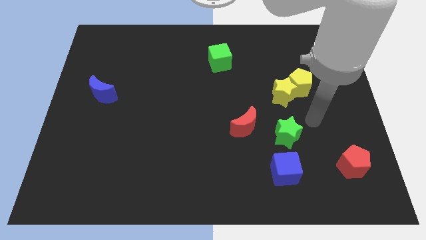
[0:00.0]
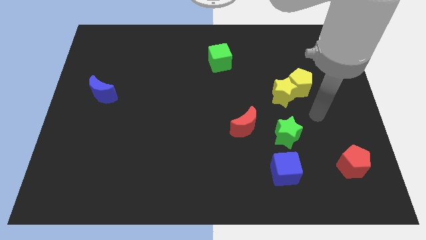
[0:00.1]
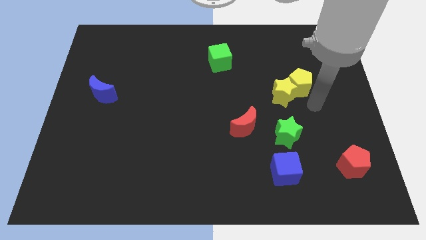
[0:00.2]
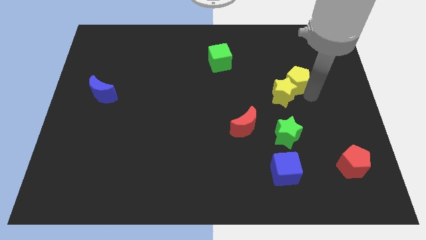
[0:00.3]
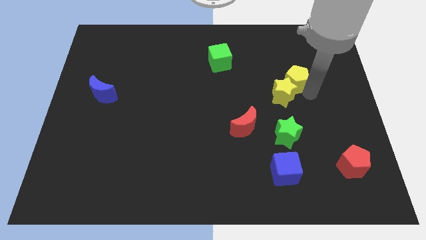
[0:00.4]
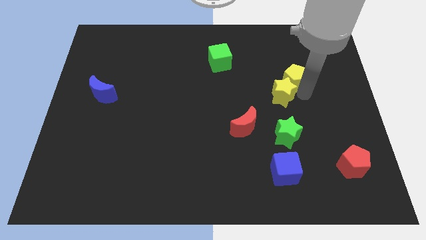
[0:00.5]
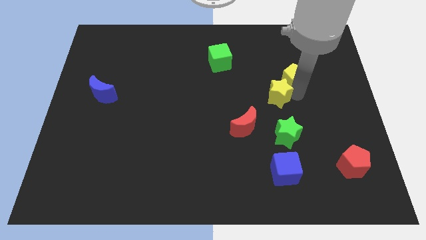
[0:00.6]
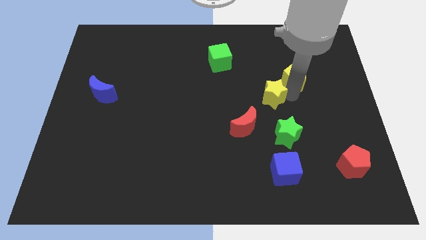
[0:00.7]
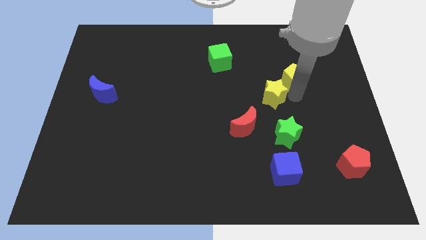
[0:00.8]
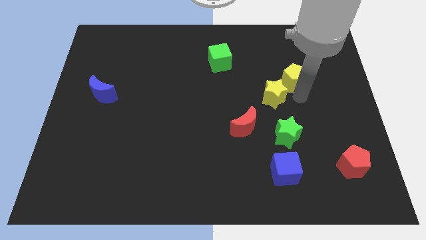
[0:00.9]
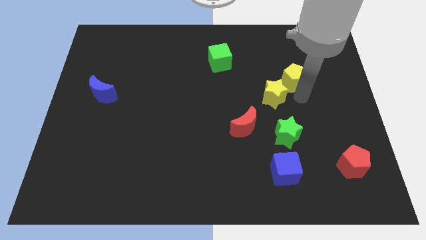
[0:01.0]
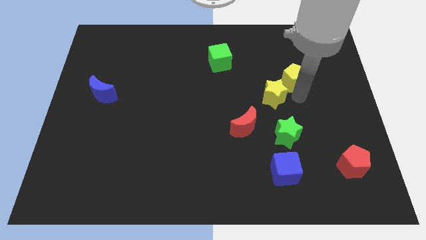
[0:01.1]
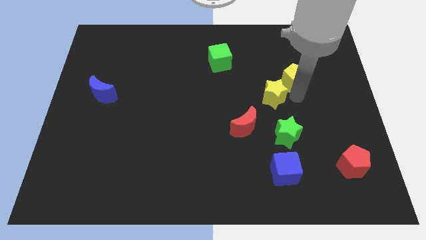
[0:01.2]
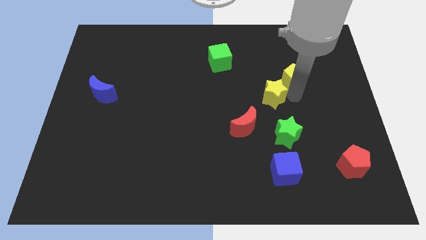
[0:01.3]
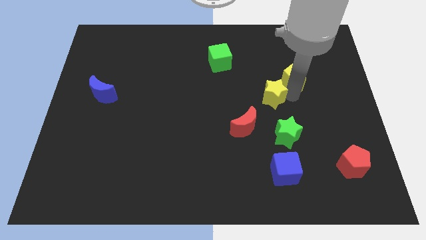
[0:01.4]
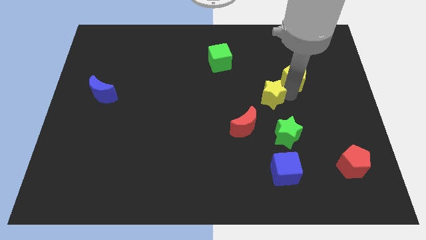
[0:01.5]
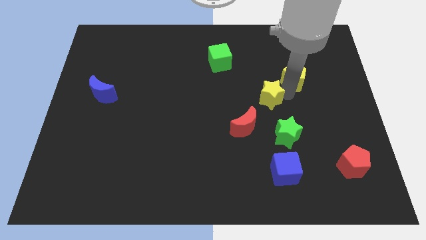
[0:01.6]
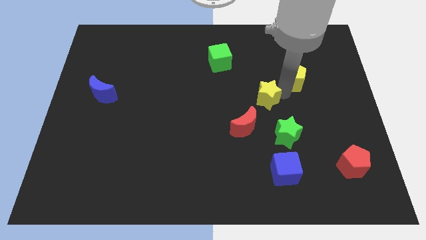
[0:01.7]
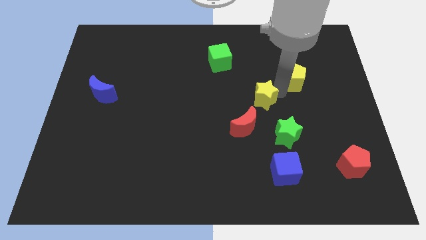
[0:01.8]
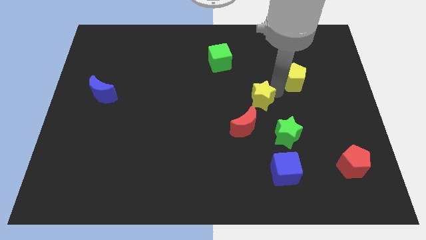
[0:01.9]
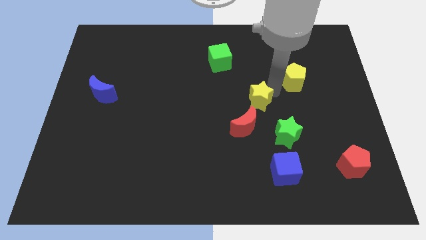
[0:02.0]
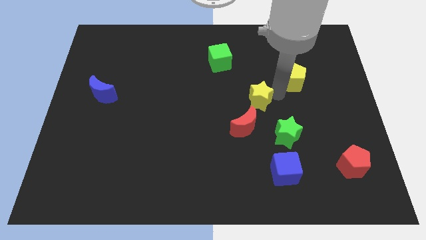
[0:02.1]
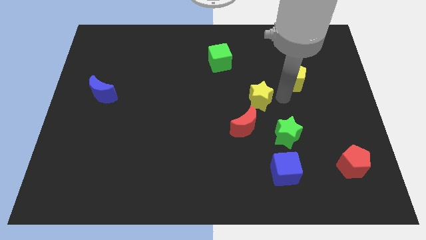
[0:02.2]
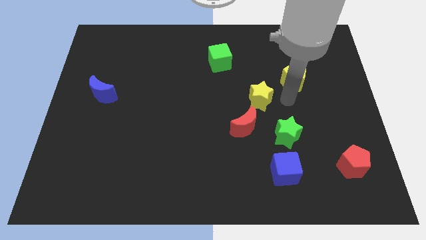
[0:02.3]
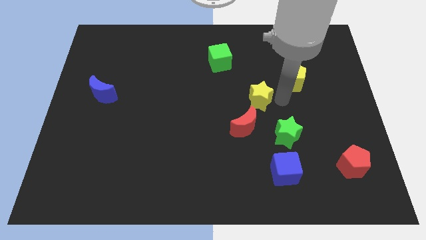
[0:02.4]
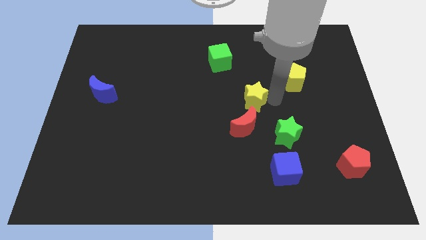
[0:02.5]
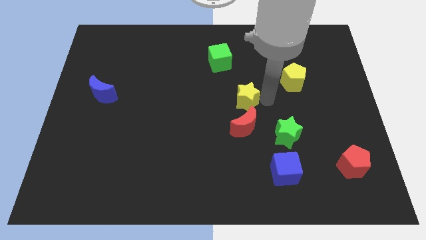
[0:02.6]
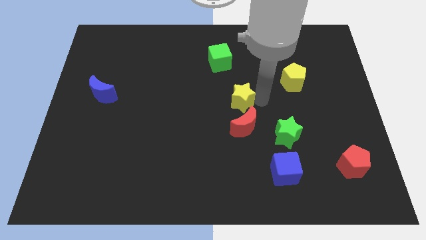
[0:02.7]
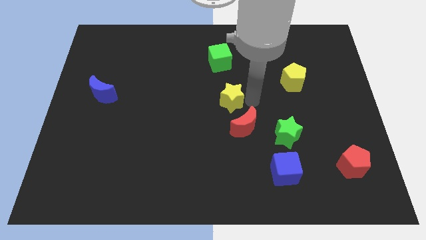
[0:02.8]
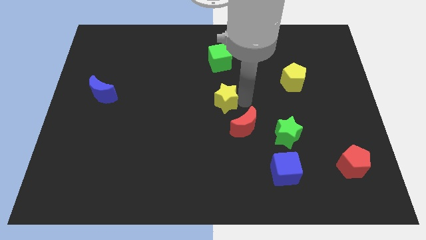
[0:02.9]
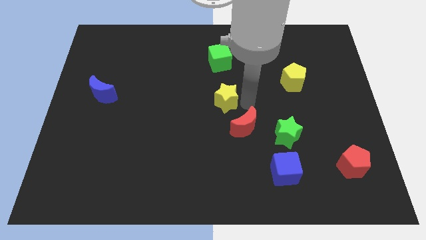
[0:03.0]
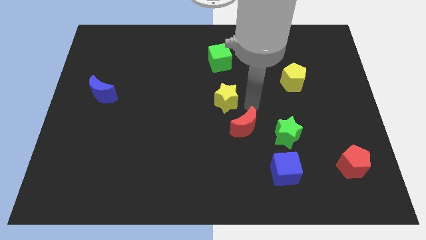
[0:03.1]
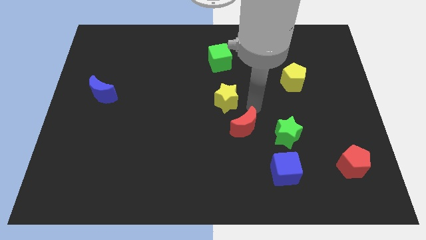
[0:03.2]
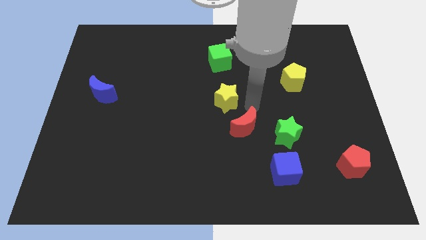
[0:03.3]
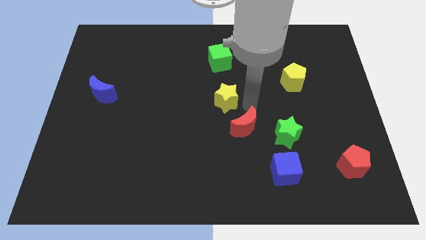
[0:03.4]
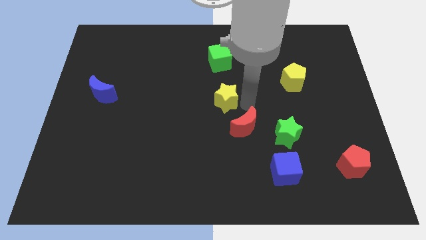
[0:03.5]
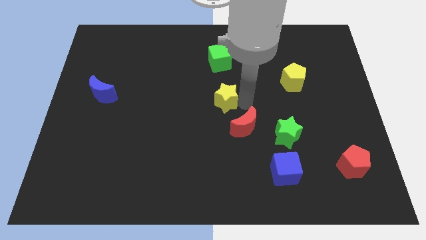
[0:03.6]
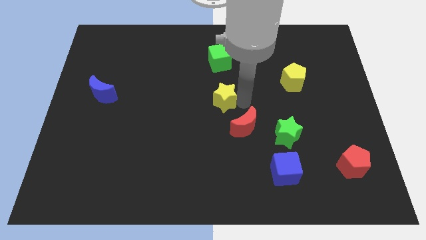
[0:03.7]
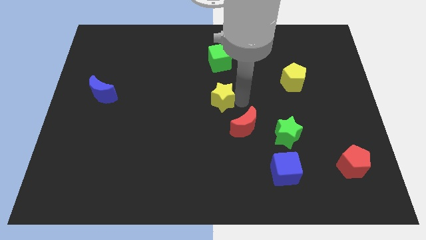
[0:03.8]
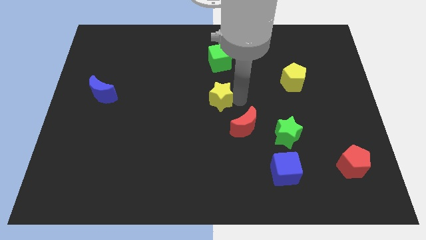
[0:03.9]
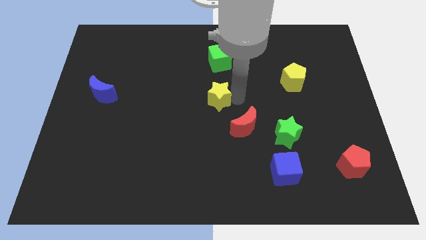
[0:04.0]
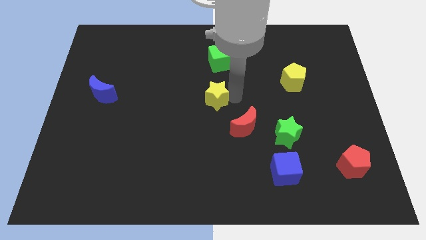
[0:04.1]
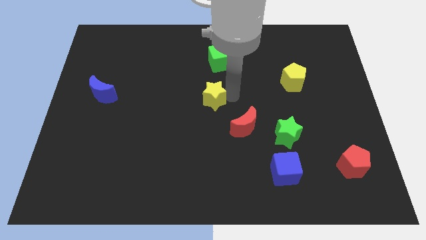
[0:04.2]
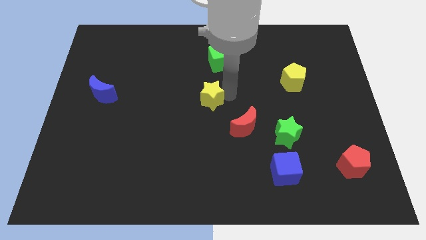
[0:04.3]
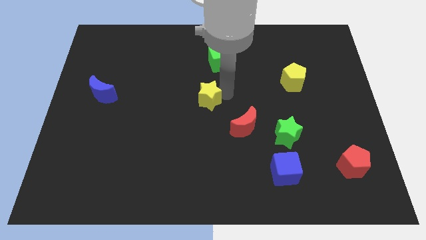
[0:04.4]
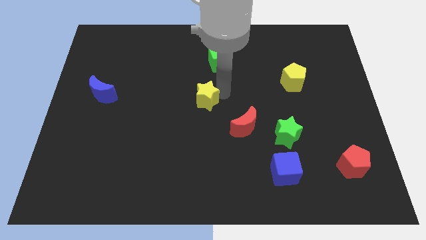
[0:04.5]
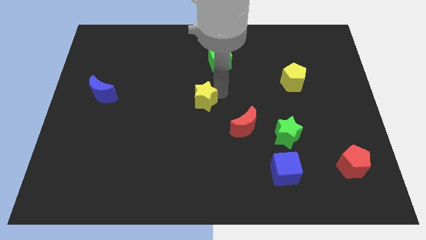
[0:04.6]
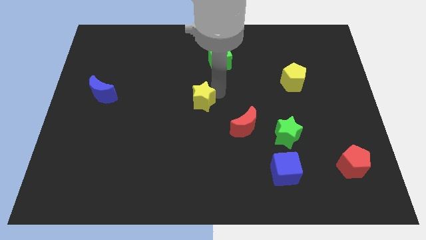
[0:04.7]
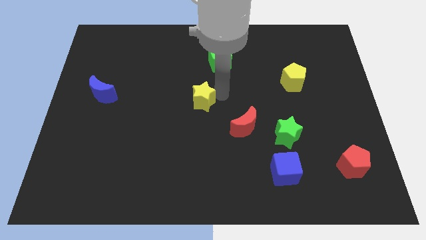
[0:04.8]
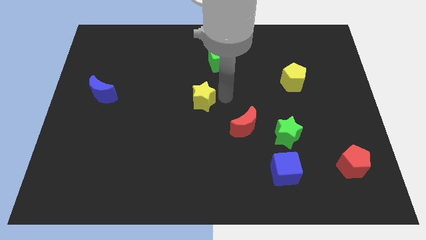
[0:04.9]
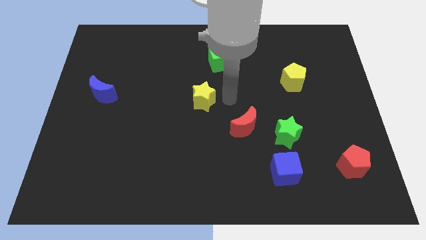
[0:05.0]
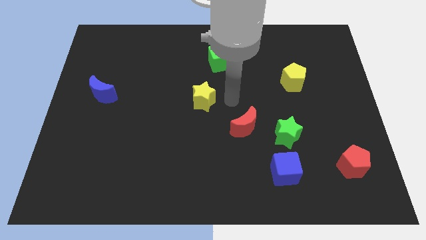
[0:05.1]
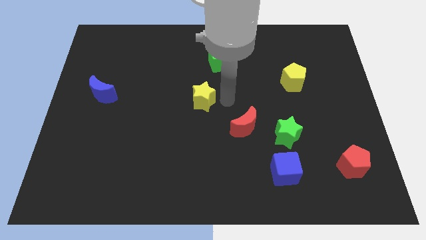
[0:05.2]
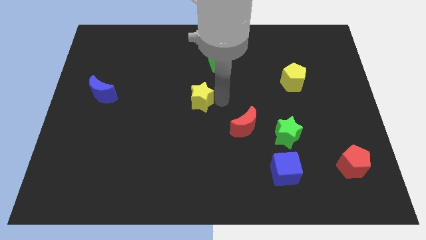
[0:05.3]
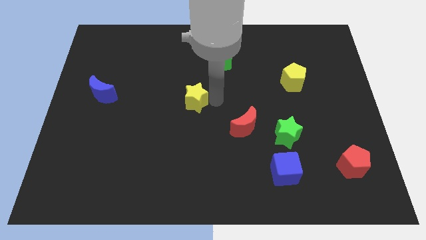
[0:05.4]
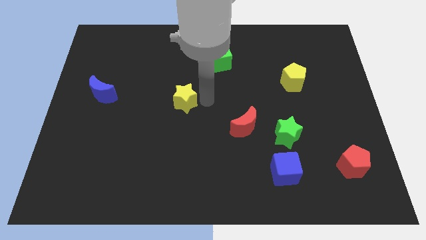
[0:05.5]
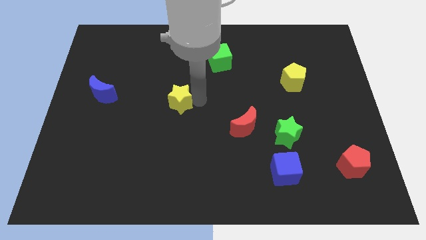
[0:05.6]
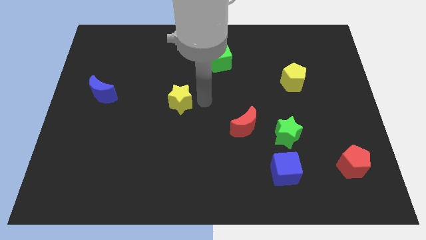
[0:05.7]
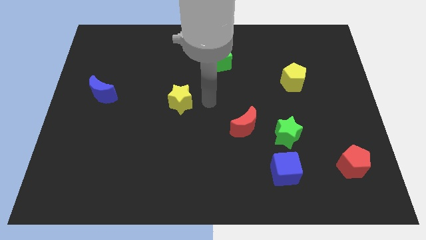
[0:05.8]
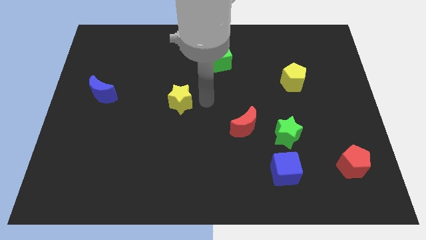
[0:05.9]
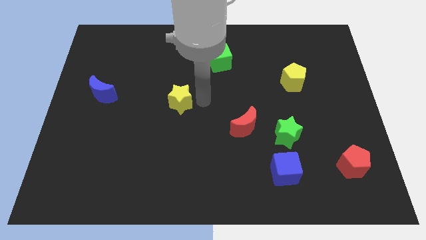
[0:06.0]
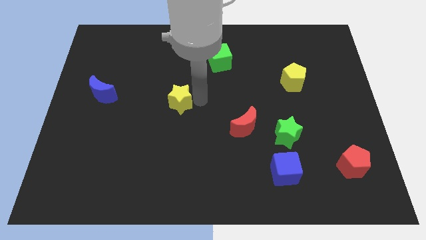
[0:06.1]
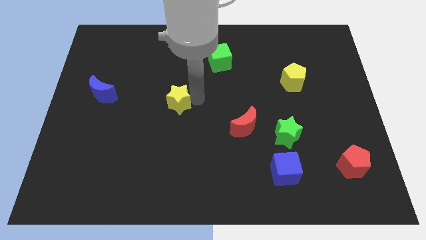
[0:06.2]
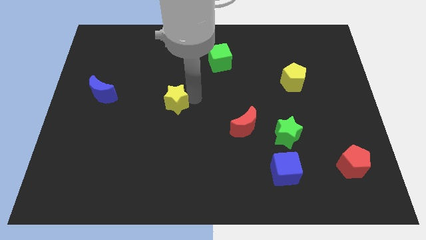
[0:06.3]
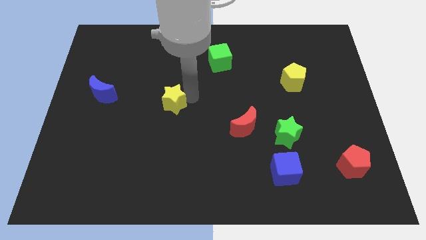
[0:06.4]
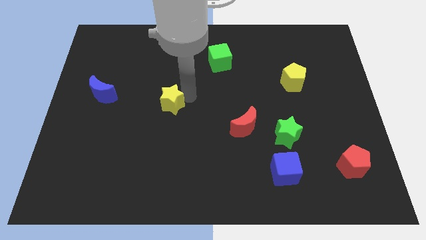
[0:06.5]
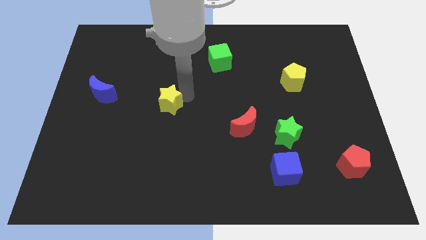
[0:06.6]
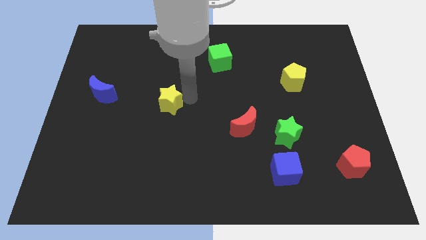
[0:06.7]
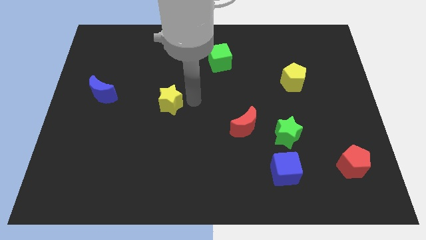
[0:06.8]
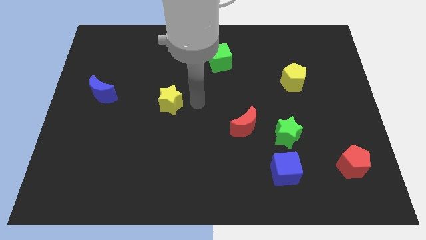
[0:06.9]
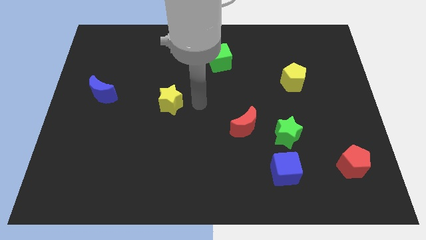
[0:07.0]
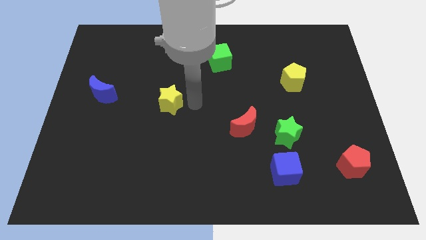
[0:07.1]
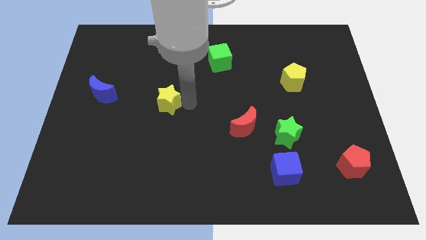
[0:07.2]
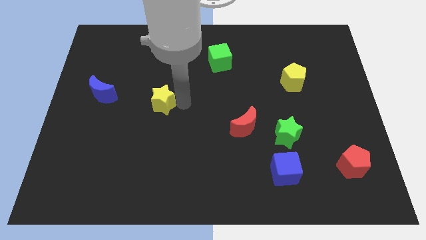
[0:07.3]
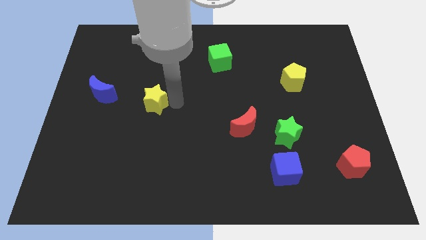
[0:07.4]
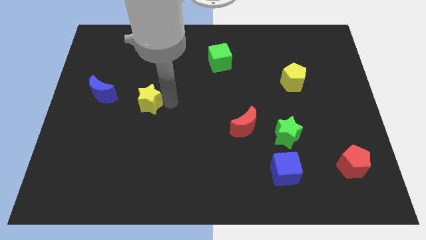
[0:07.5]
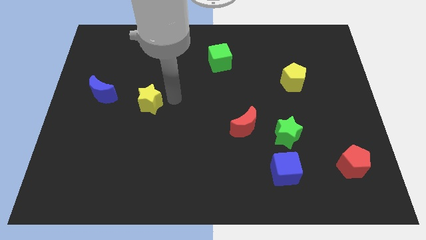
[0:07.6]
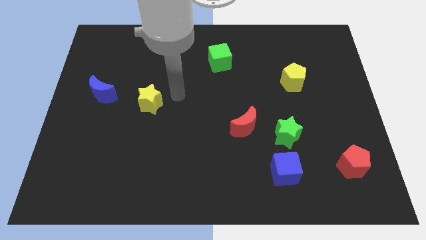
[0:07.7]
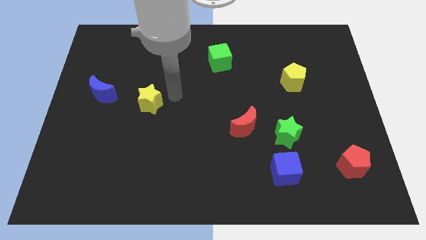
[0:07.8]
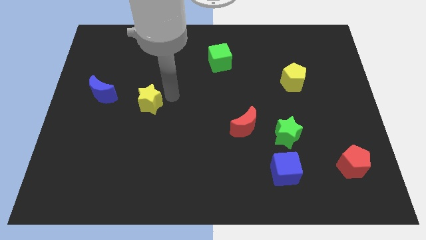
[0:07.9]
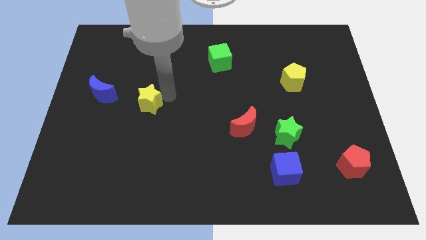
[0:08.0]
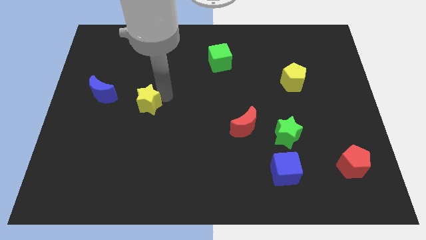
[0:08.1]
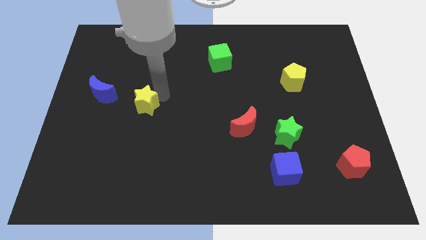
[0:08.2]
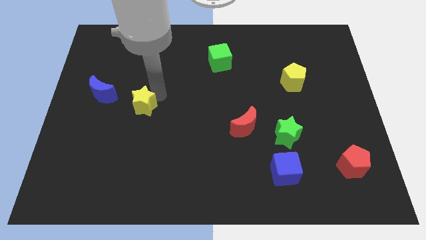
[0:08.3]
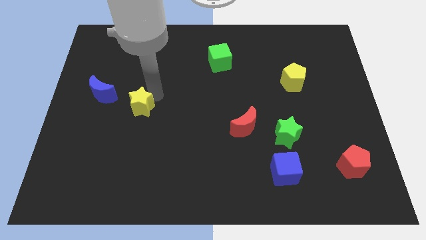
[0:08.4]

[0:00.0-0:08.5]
move the yellow star to the bottom right side of the blue moon
